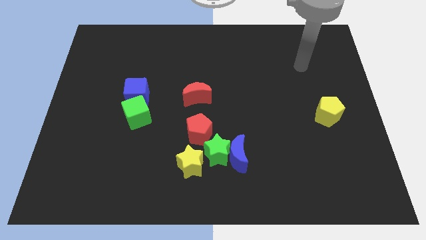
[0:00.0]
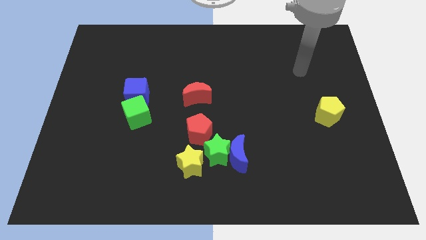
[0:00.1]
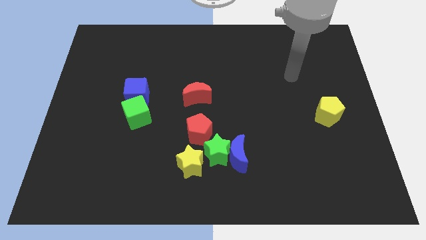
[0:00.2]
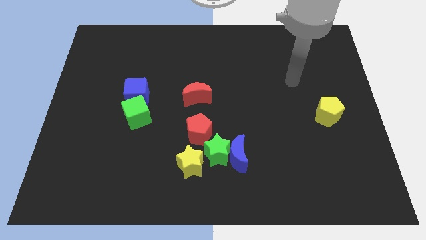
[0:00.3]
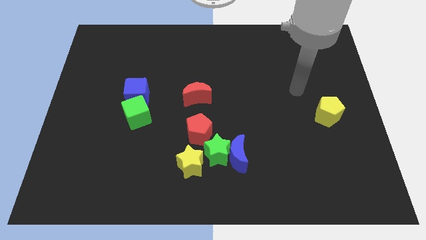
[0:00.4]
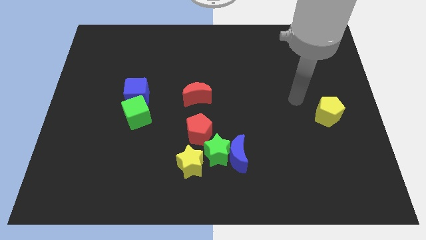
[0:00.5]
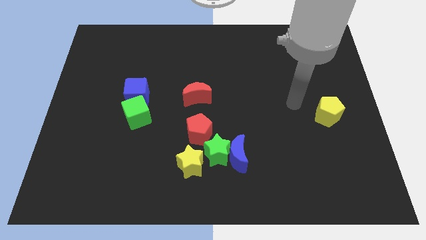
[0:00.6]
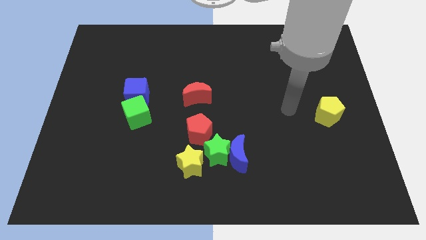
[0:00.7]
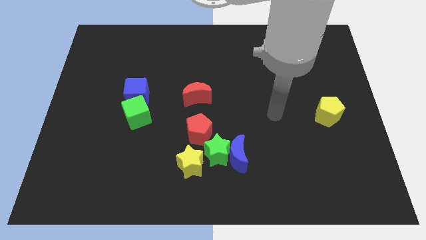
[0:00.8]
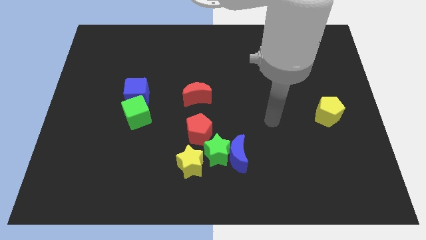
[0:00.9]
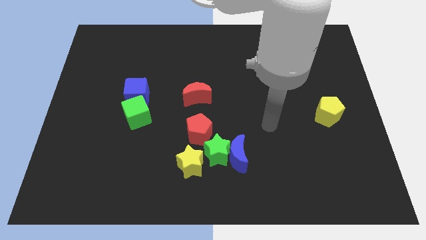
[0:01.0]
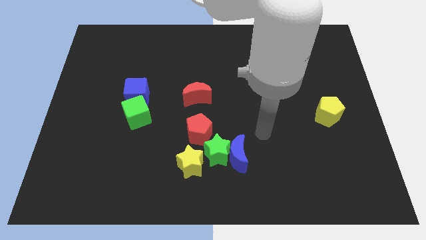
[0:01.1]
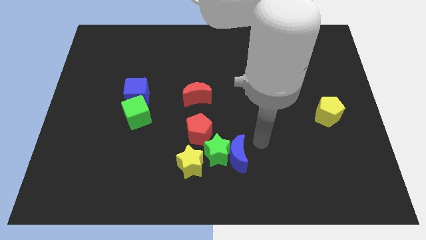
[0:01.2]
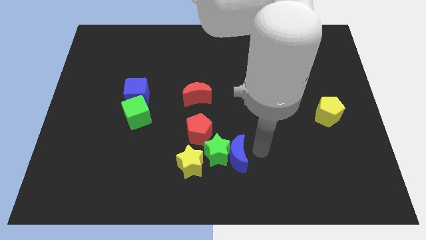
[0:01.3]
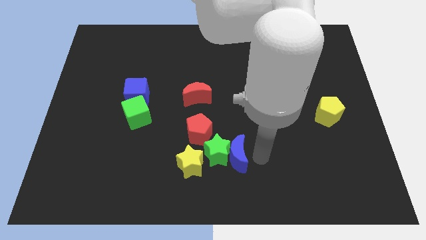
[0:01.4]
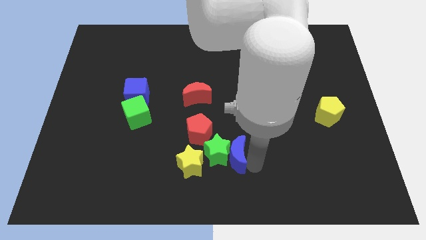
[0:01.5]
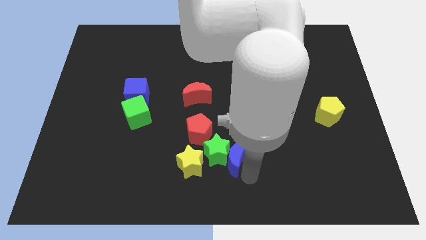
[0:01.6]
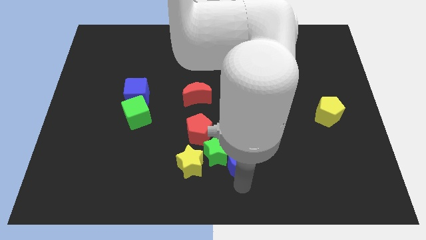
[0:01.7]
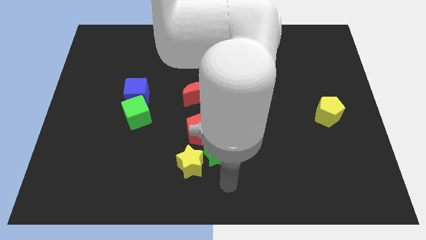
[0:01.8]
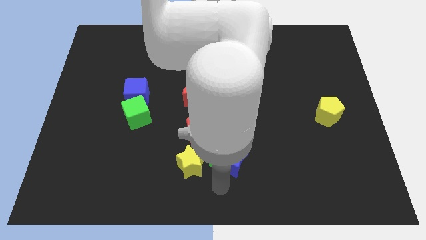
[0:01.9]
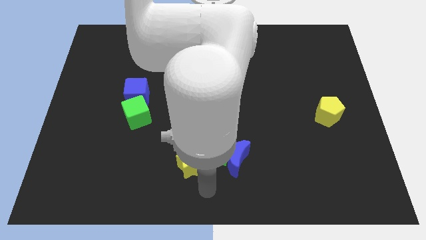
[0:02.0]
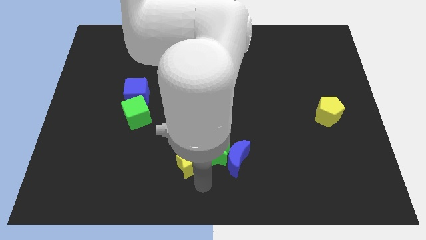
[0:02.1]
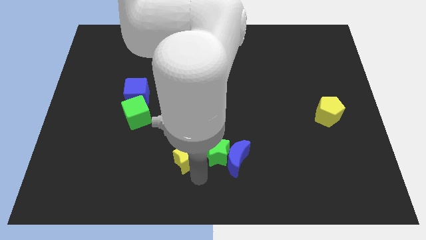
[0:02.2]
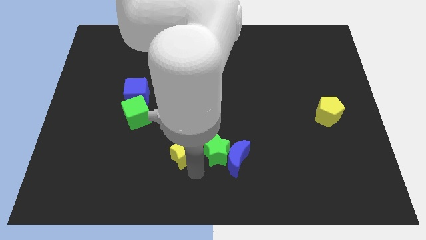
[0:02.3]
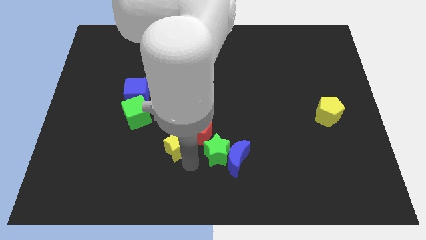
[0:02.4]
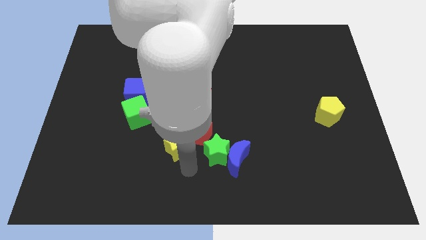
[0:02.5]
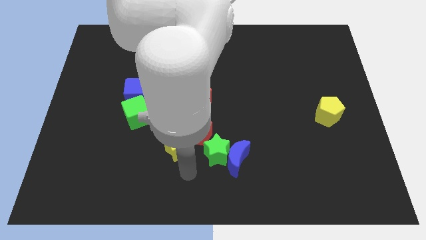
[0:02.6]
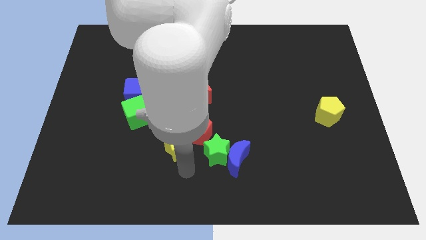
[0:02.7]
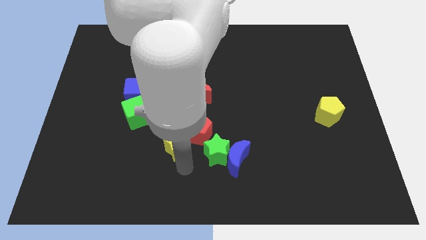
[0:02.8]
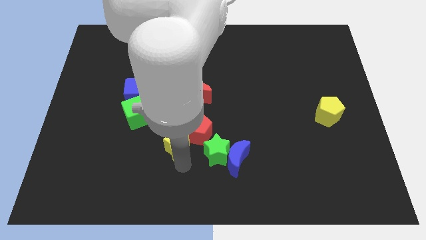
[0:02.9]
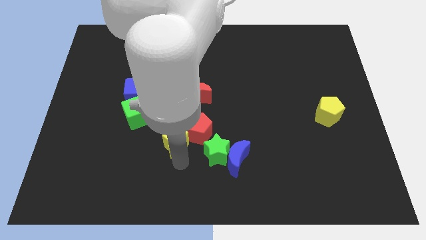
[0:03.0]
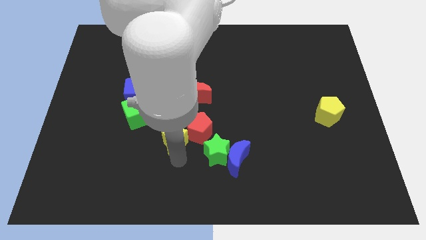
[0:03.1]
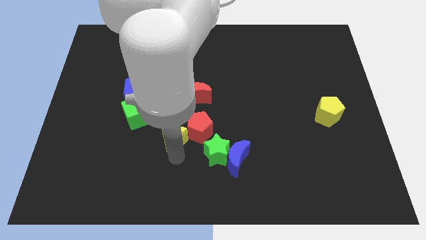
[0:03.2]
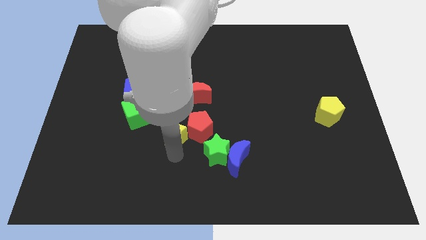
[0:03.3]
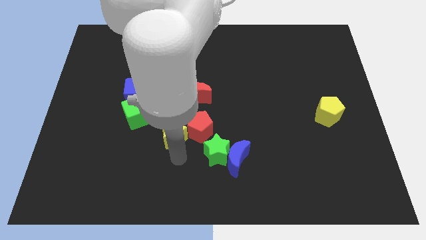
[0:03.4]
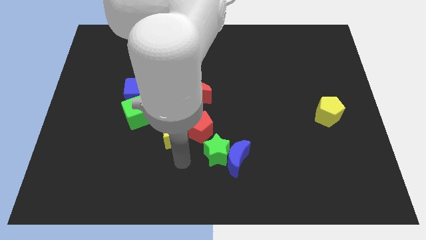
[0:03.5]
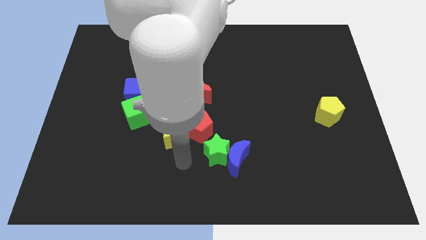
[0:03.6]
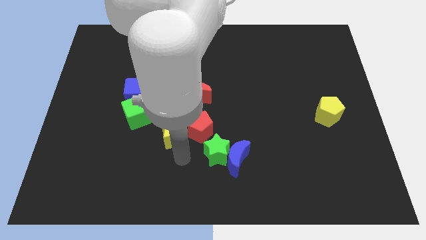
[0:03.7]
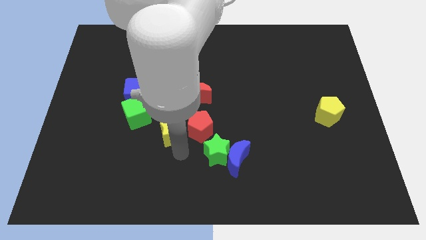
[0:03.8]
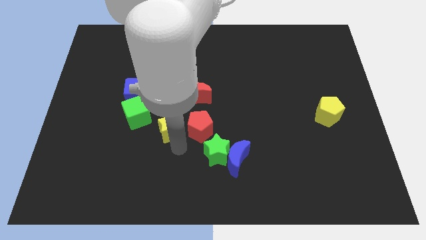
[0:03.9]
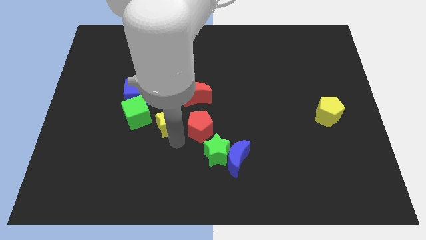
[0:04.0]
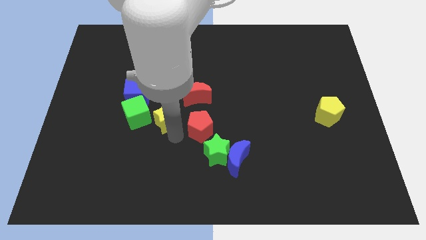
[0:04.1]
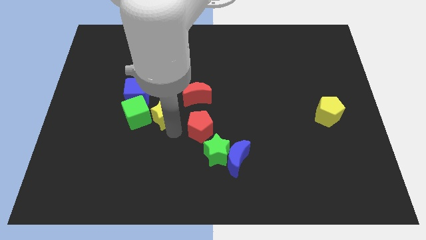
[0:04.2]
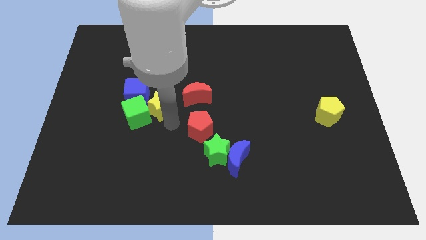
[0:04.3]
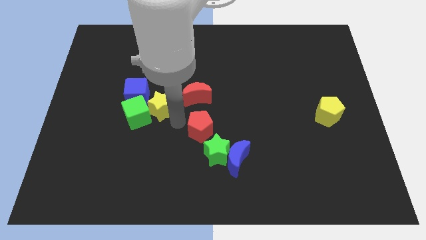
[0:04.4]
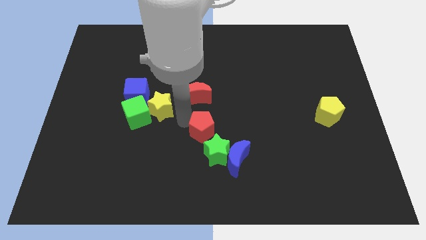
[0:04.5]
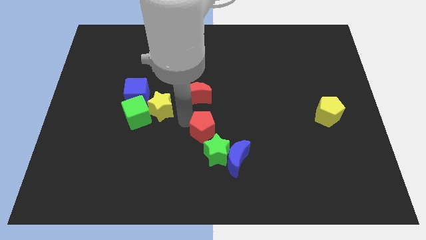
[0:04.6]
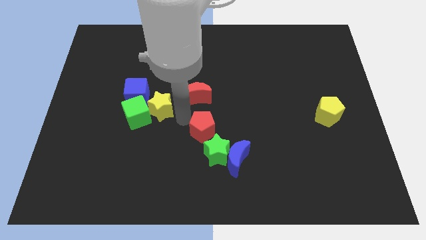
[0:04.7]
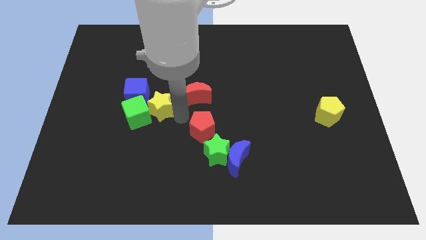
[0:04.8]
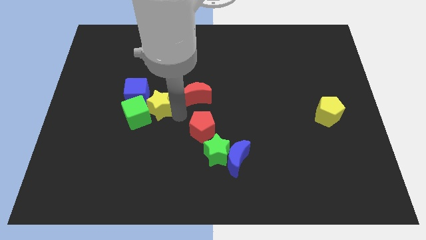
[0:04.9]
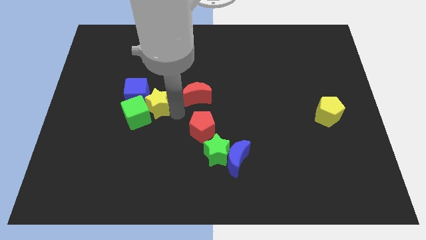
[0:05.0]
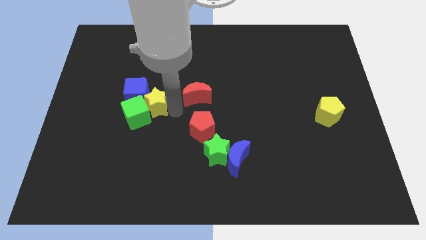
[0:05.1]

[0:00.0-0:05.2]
slide the yellow star to the blue cube

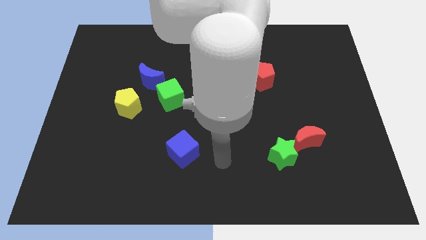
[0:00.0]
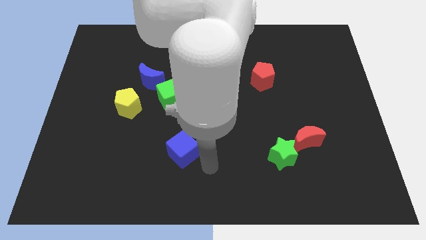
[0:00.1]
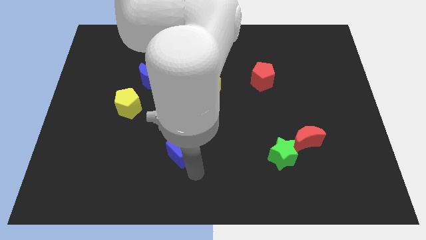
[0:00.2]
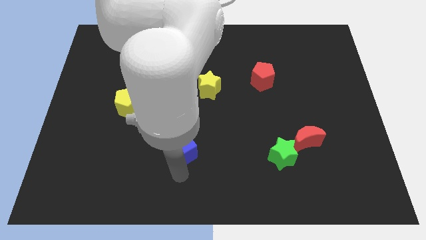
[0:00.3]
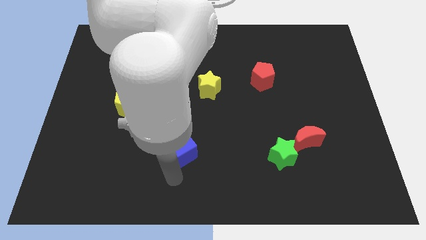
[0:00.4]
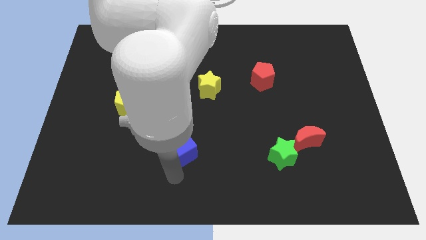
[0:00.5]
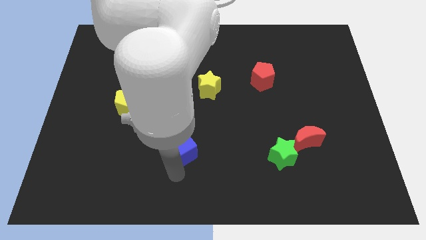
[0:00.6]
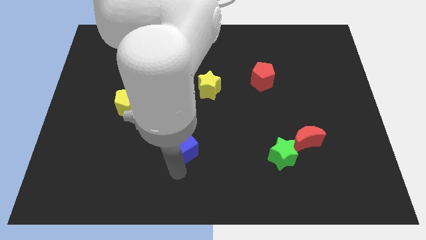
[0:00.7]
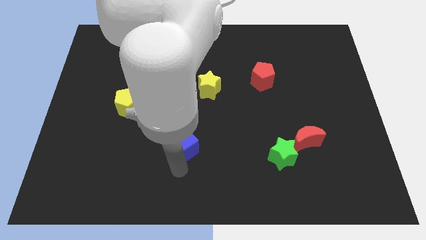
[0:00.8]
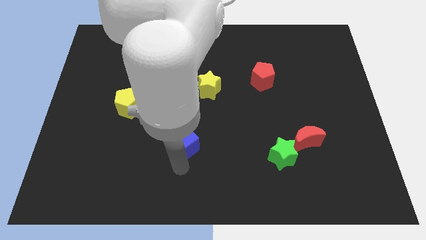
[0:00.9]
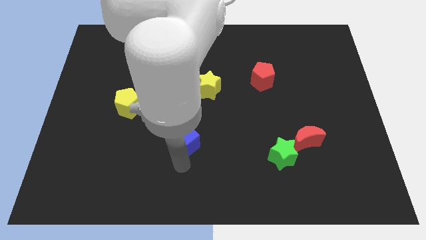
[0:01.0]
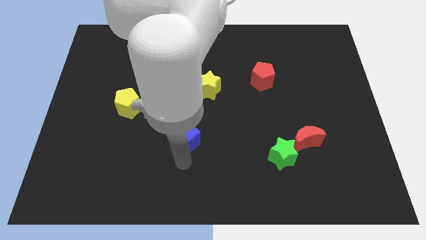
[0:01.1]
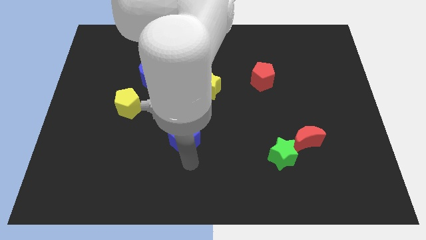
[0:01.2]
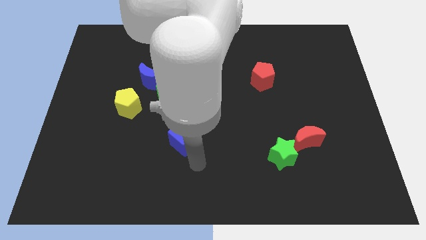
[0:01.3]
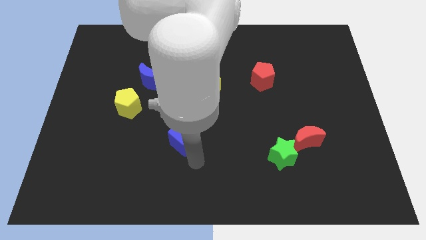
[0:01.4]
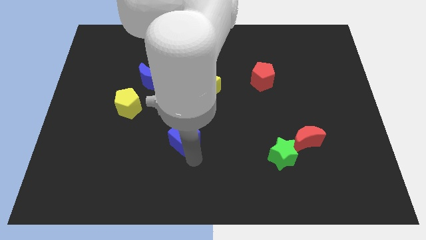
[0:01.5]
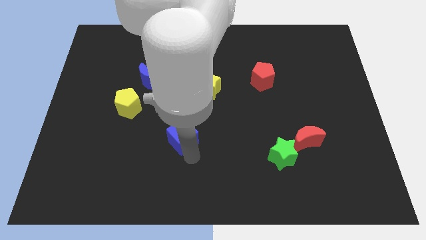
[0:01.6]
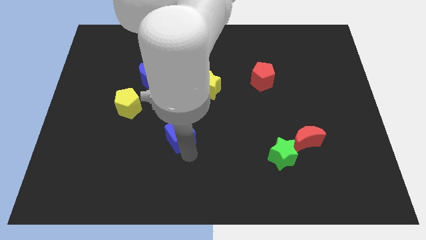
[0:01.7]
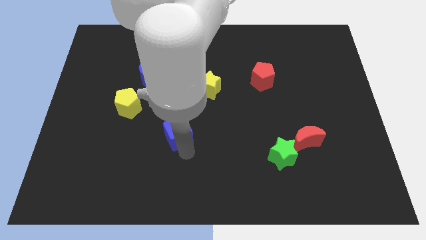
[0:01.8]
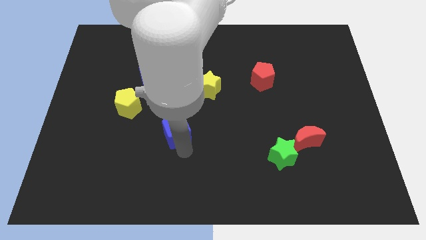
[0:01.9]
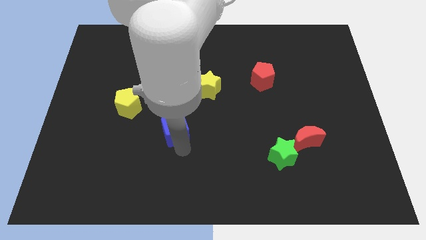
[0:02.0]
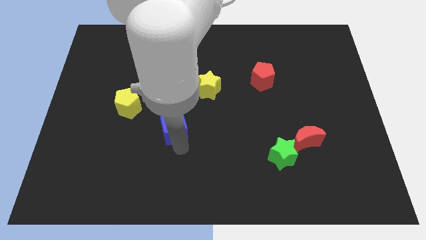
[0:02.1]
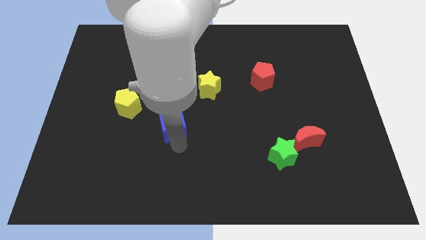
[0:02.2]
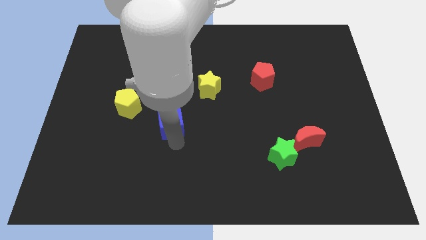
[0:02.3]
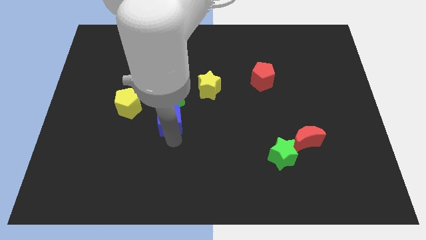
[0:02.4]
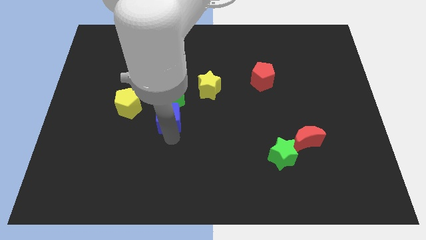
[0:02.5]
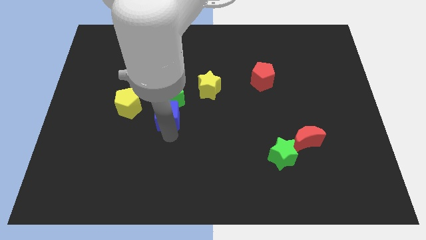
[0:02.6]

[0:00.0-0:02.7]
put the blue cube close to the green cube
